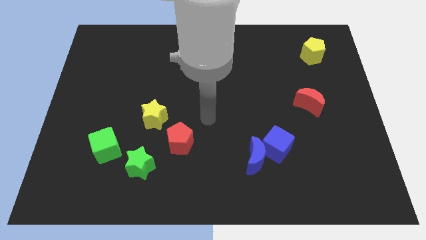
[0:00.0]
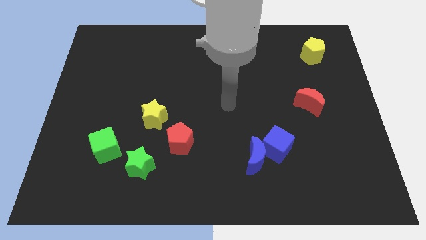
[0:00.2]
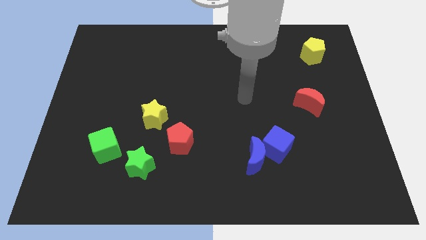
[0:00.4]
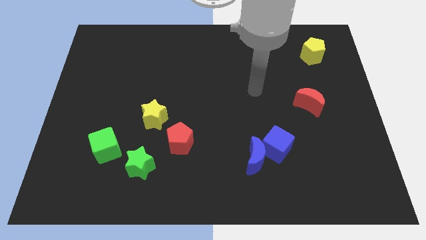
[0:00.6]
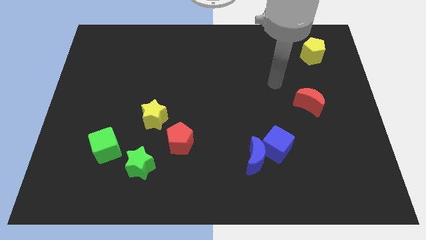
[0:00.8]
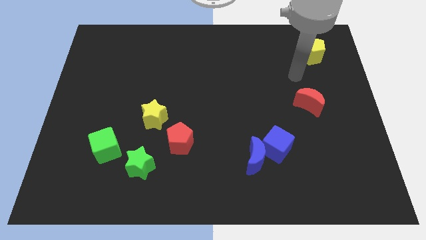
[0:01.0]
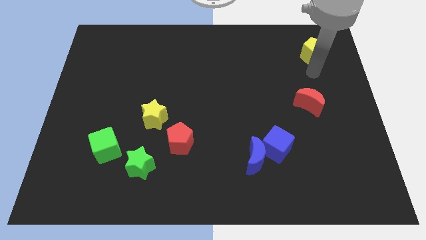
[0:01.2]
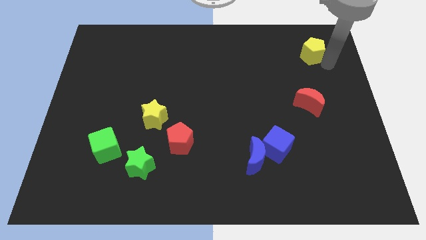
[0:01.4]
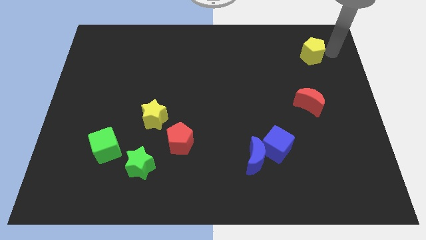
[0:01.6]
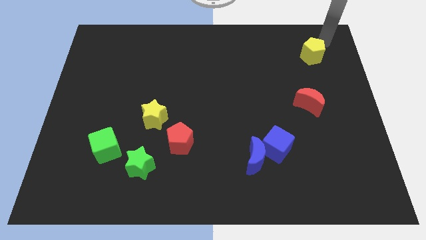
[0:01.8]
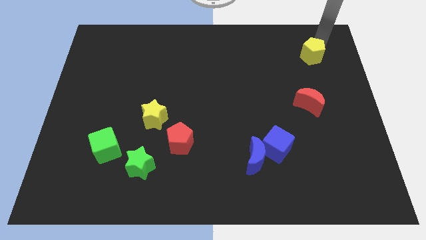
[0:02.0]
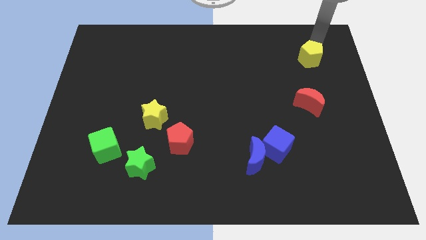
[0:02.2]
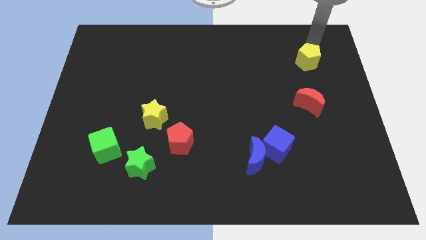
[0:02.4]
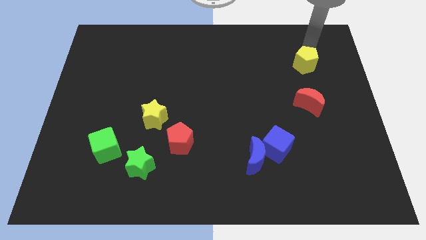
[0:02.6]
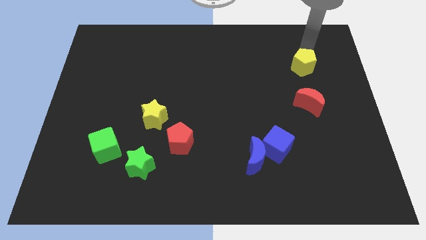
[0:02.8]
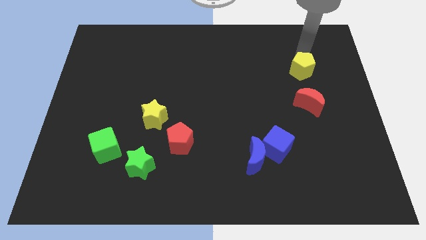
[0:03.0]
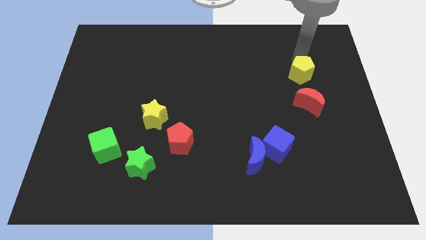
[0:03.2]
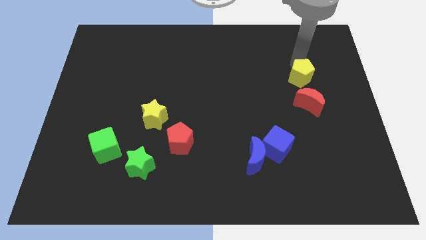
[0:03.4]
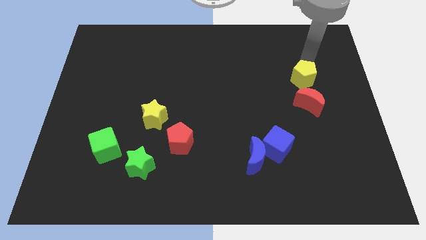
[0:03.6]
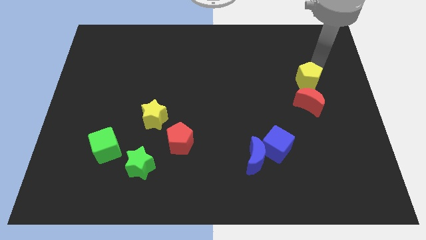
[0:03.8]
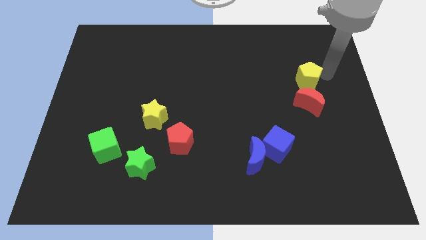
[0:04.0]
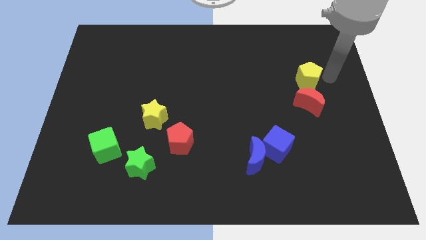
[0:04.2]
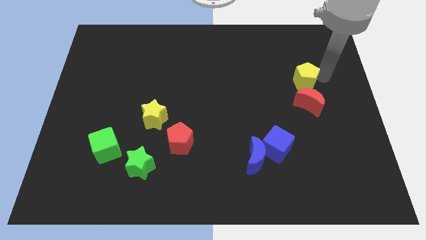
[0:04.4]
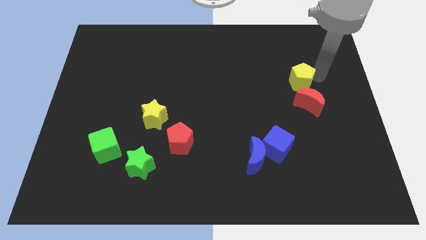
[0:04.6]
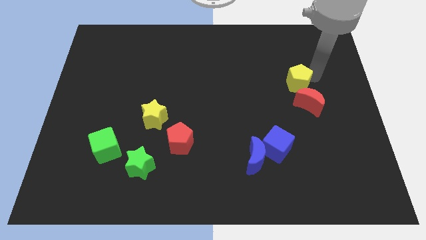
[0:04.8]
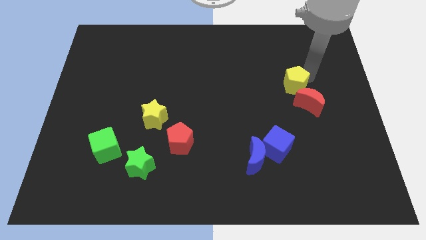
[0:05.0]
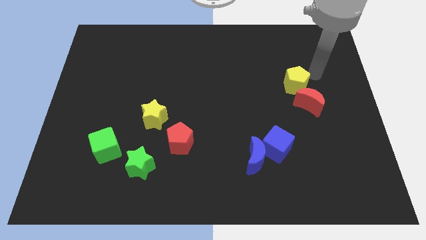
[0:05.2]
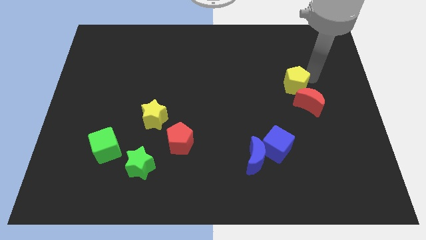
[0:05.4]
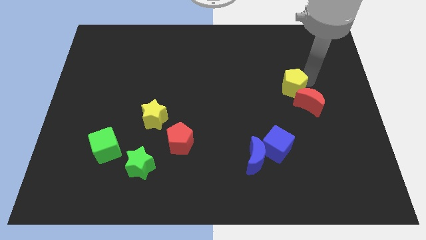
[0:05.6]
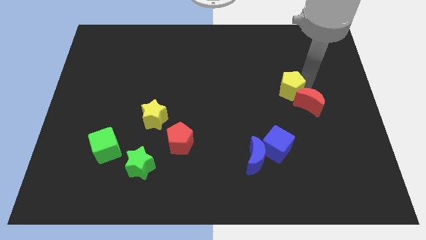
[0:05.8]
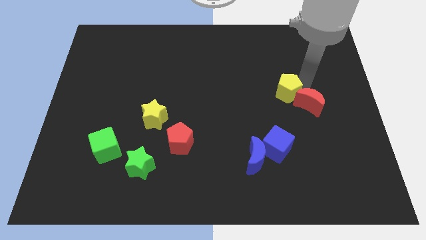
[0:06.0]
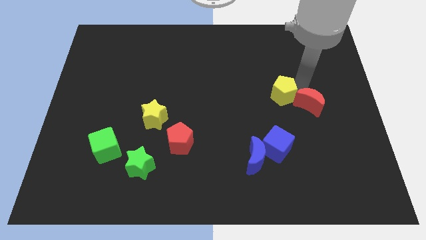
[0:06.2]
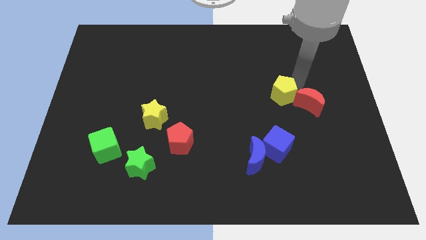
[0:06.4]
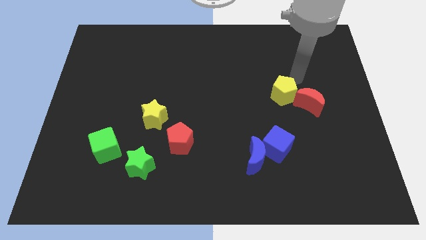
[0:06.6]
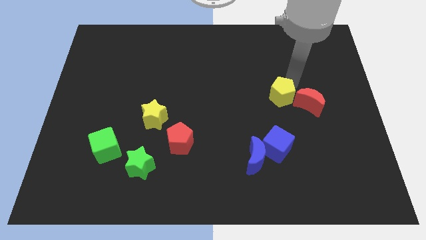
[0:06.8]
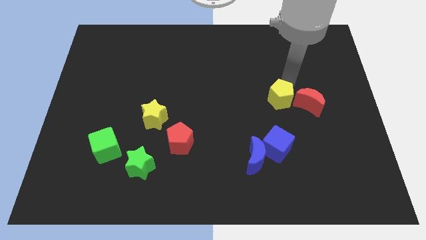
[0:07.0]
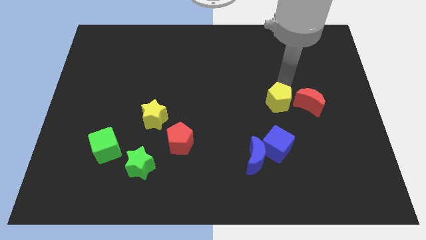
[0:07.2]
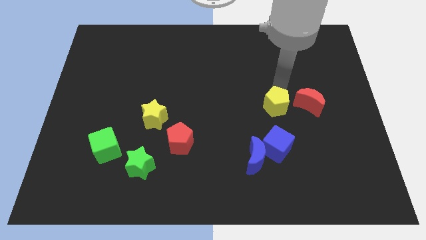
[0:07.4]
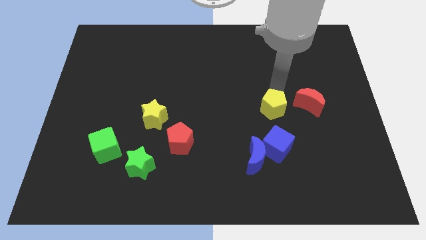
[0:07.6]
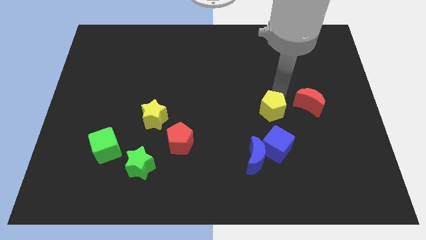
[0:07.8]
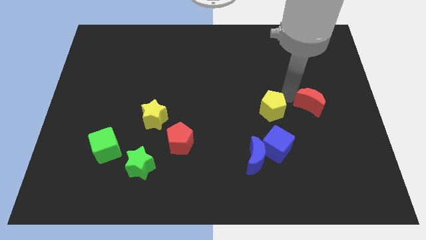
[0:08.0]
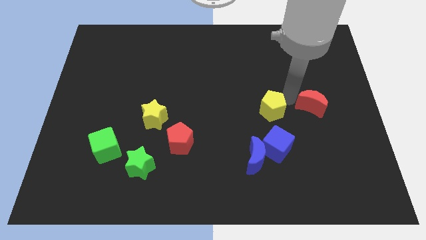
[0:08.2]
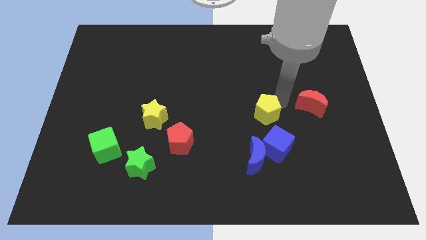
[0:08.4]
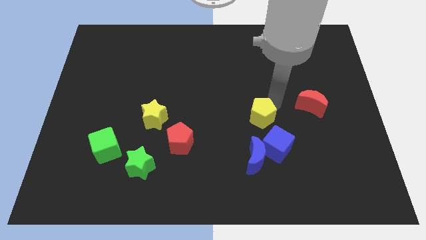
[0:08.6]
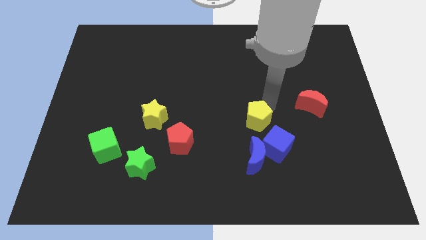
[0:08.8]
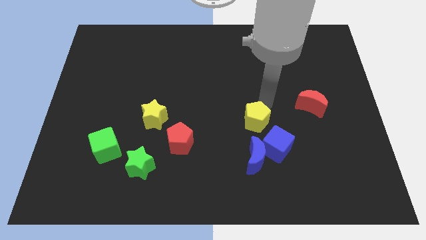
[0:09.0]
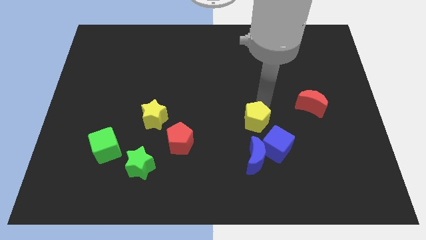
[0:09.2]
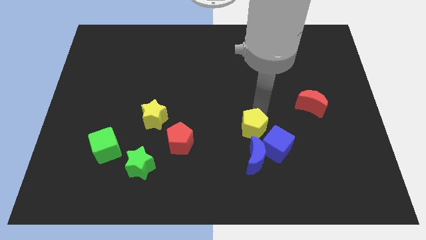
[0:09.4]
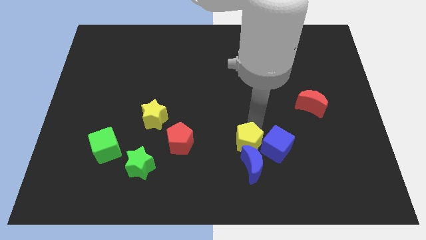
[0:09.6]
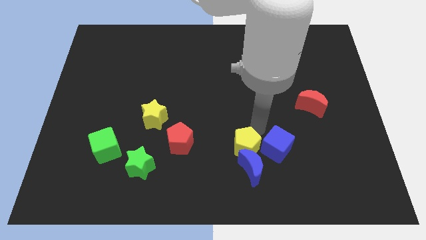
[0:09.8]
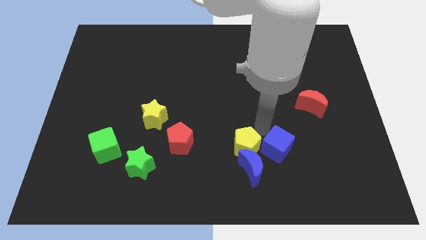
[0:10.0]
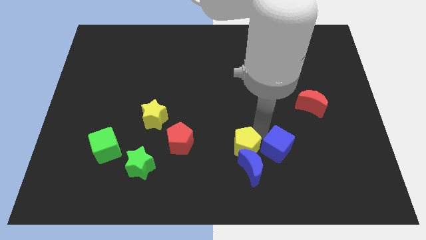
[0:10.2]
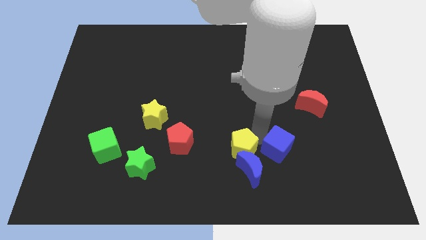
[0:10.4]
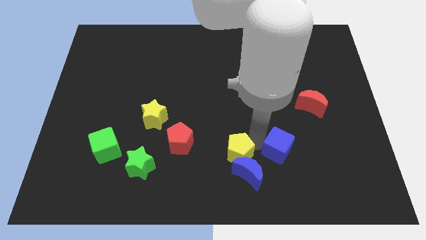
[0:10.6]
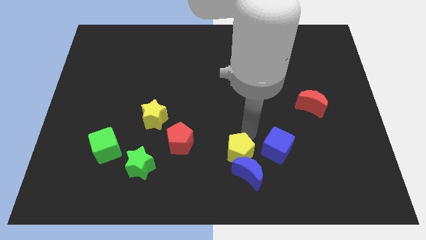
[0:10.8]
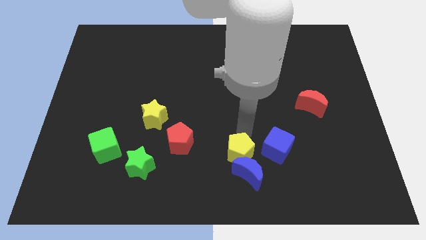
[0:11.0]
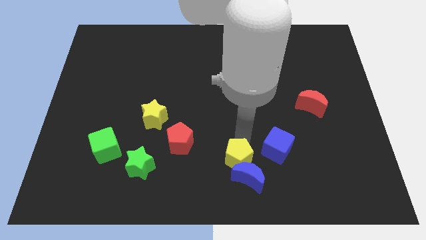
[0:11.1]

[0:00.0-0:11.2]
push the yellow pentagon to the bottom side

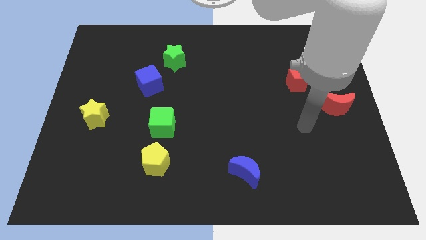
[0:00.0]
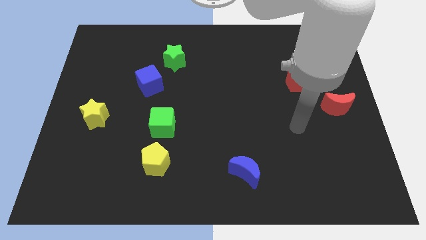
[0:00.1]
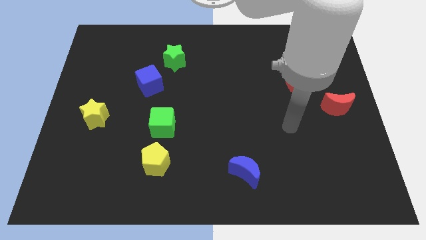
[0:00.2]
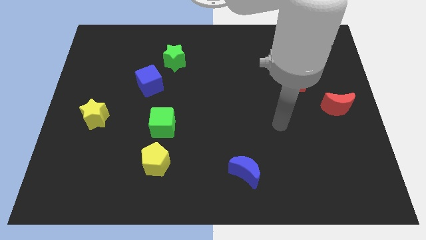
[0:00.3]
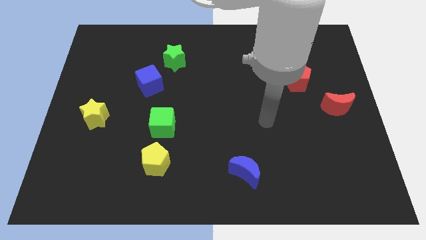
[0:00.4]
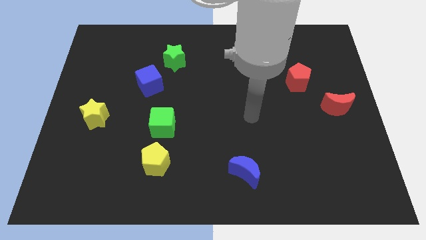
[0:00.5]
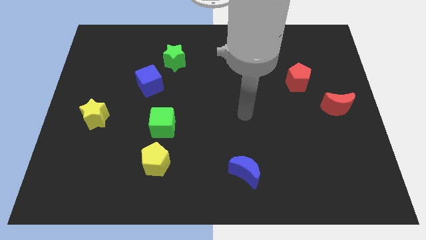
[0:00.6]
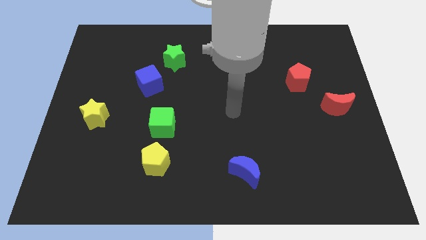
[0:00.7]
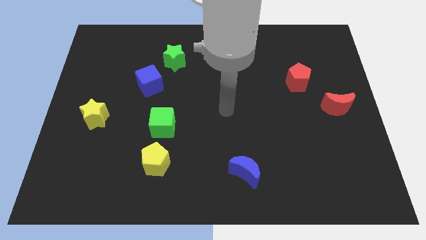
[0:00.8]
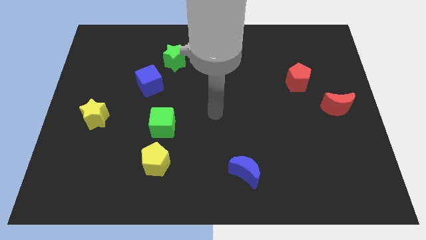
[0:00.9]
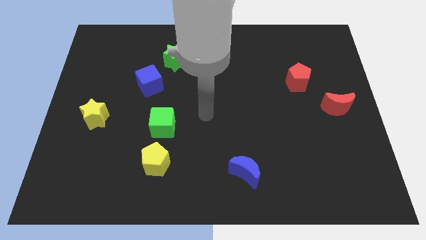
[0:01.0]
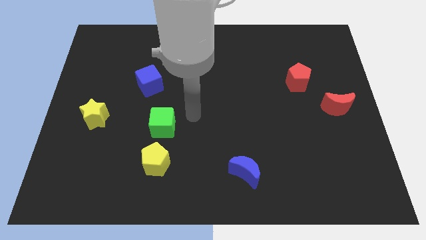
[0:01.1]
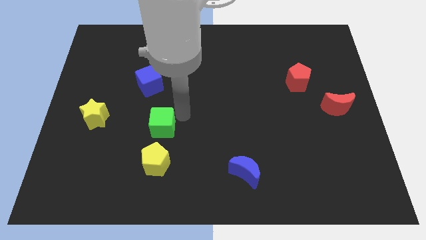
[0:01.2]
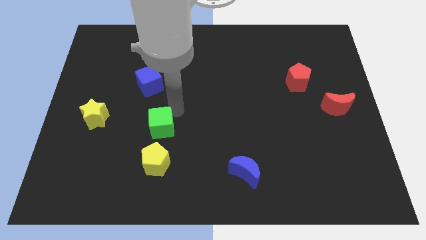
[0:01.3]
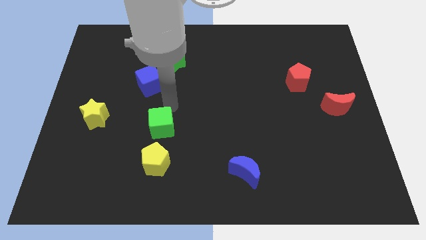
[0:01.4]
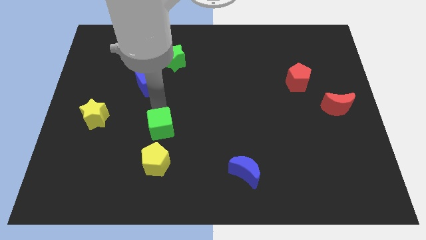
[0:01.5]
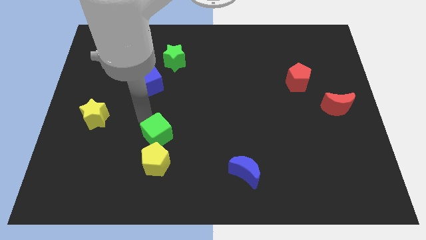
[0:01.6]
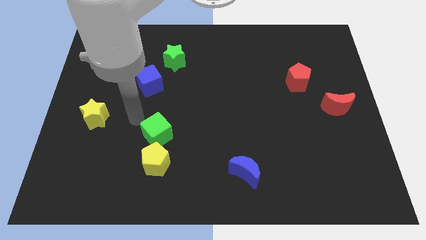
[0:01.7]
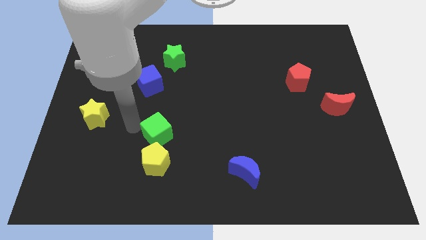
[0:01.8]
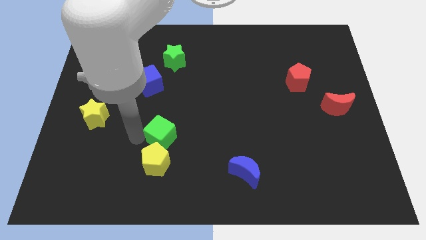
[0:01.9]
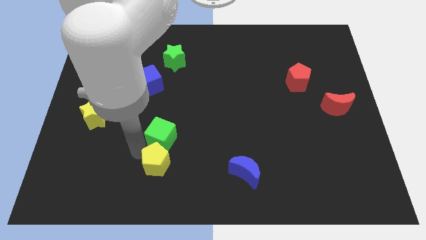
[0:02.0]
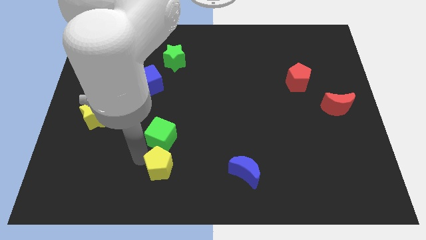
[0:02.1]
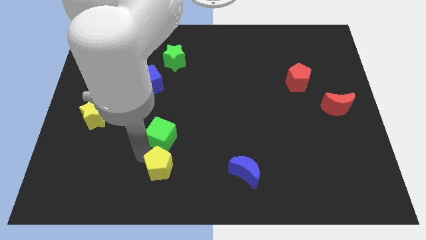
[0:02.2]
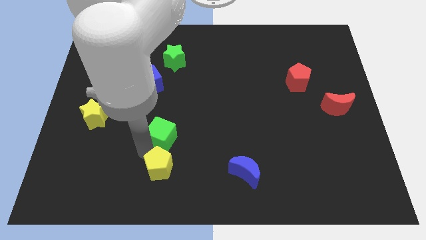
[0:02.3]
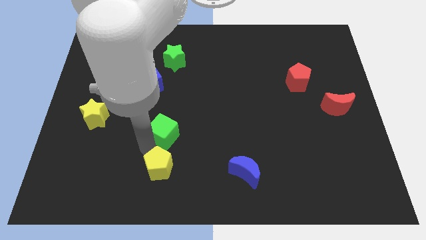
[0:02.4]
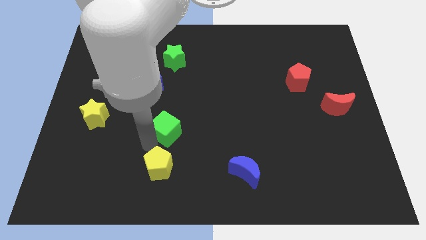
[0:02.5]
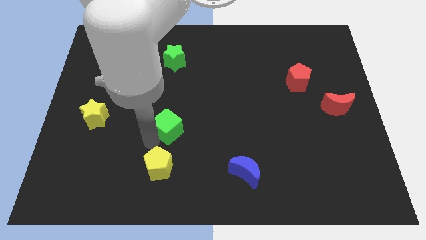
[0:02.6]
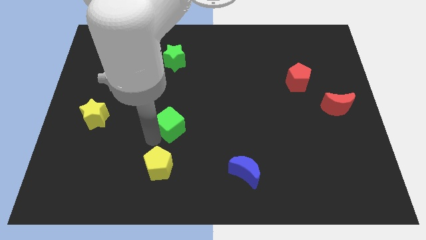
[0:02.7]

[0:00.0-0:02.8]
push the green cube to the center of the board

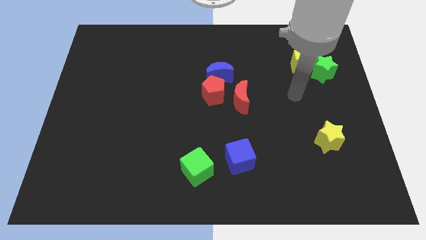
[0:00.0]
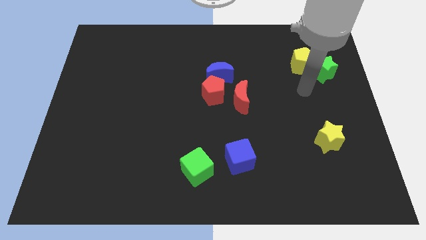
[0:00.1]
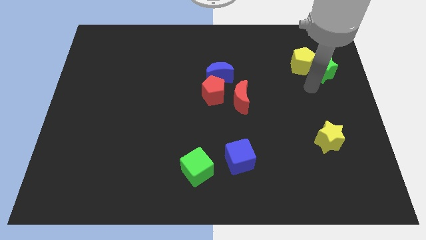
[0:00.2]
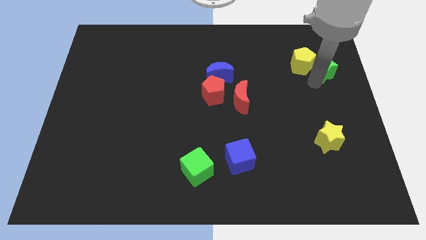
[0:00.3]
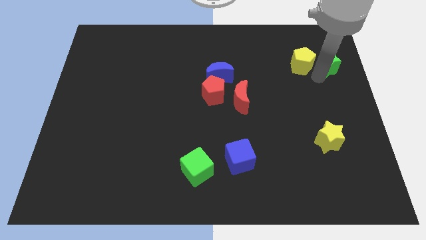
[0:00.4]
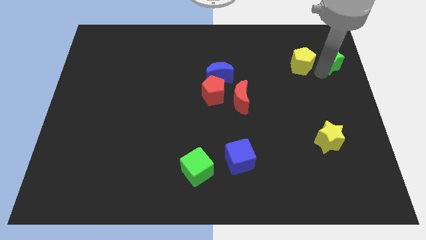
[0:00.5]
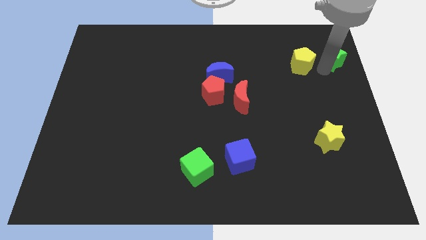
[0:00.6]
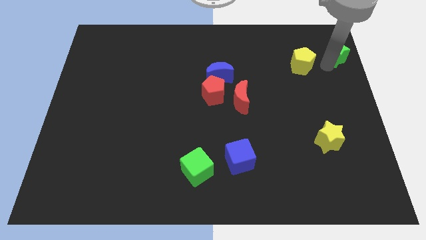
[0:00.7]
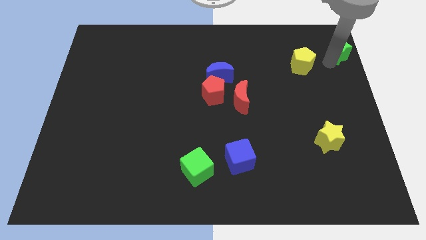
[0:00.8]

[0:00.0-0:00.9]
put the green star to the top right of the board
